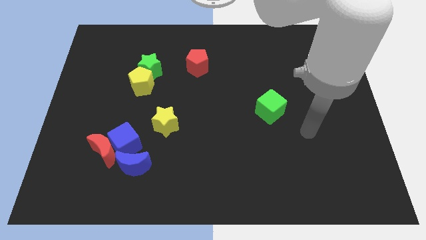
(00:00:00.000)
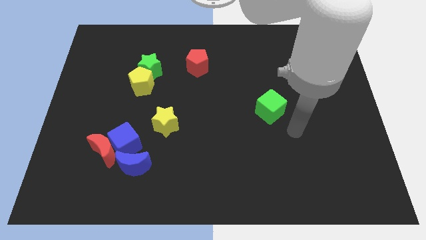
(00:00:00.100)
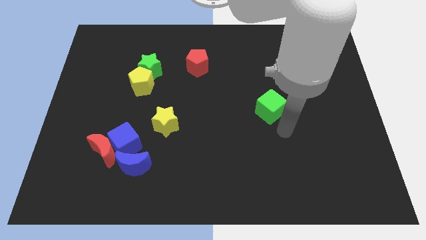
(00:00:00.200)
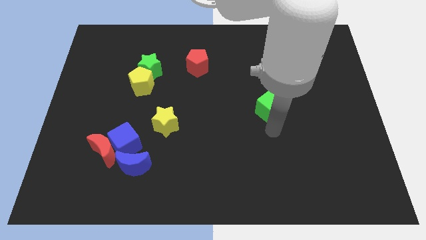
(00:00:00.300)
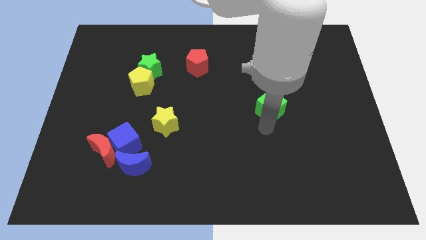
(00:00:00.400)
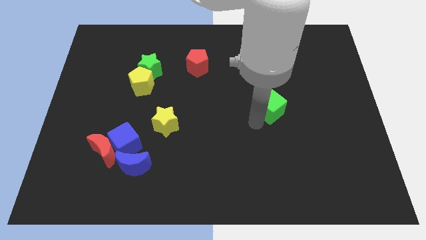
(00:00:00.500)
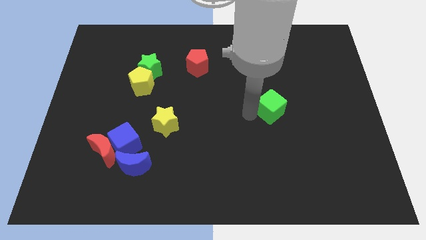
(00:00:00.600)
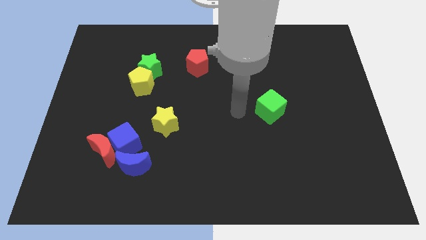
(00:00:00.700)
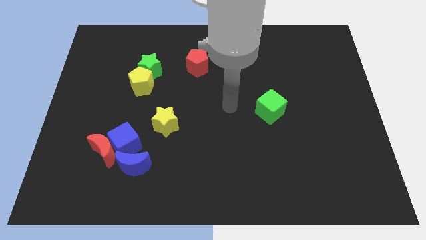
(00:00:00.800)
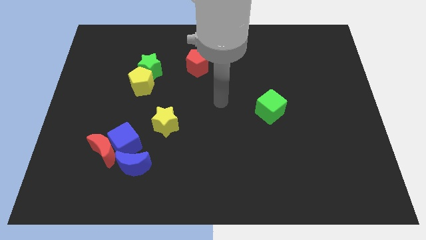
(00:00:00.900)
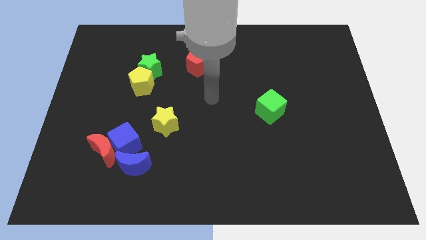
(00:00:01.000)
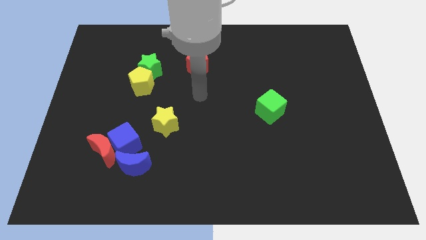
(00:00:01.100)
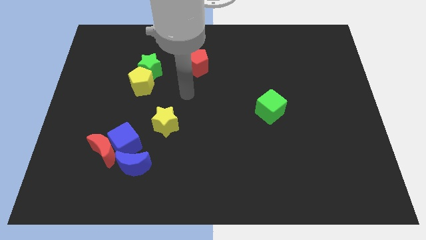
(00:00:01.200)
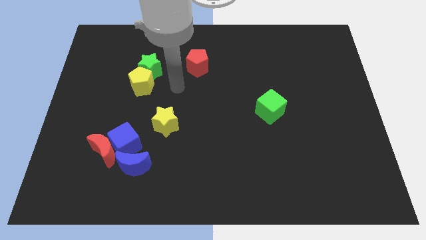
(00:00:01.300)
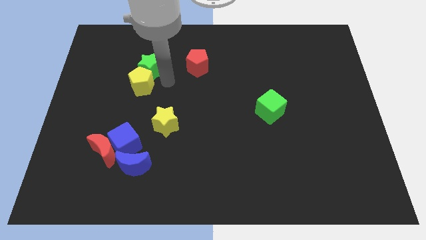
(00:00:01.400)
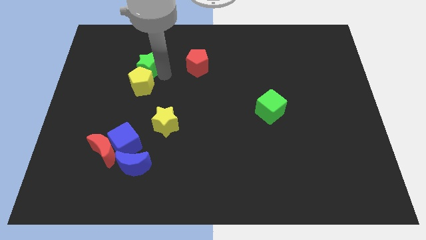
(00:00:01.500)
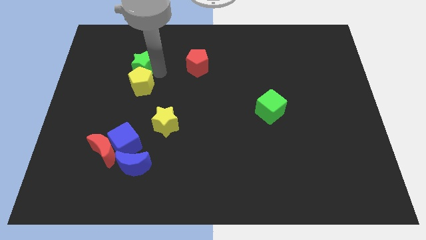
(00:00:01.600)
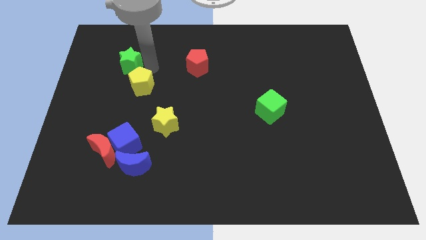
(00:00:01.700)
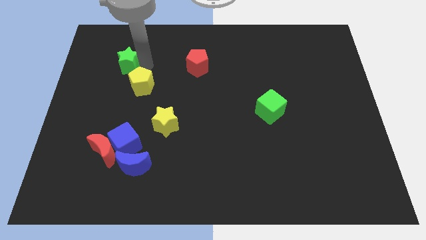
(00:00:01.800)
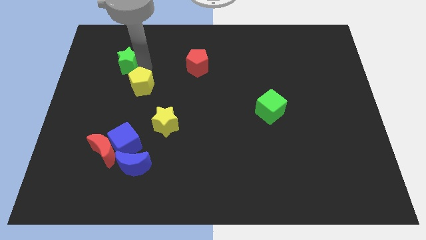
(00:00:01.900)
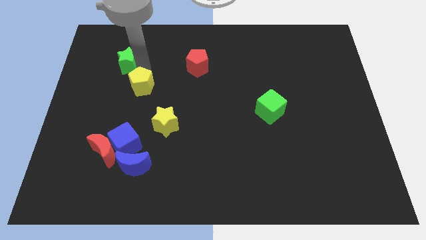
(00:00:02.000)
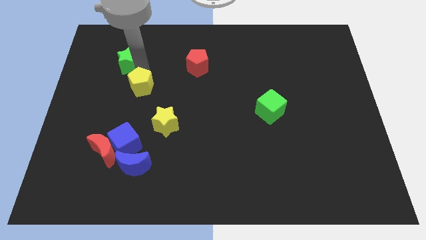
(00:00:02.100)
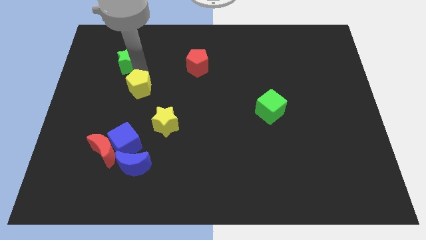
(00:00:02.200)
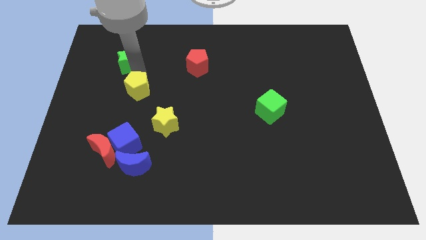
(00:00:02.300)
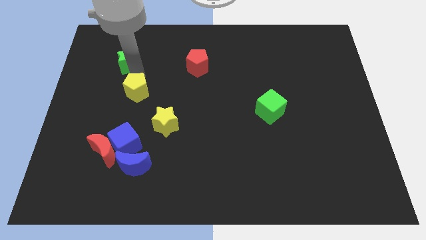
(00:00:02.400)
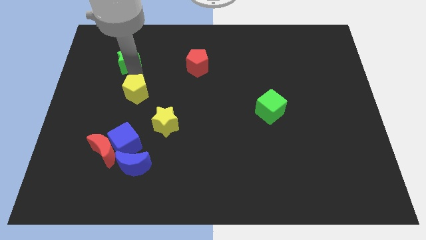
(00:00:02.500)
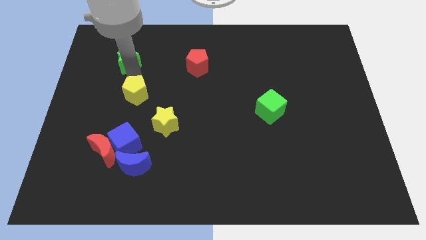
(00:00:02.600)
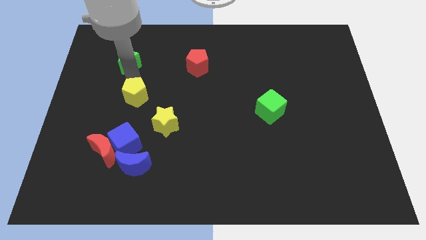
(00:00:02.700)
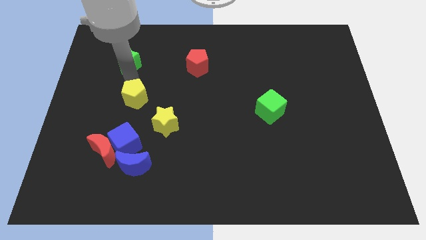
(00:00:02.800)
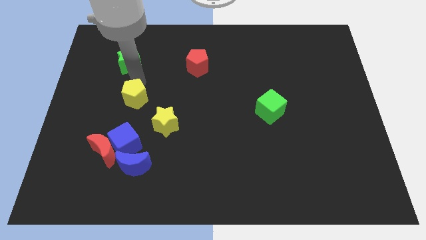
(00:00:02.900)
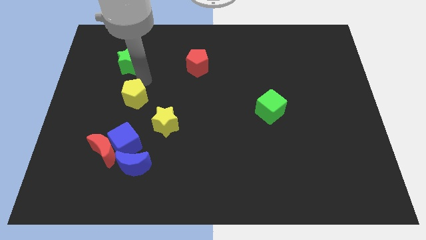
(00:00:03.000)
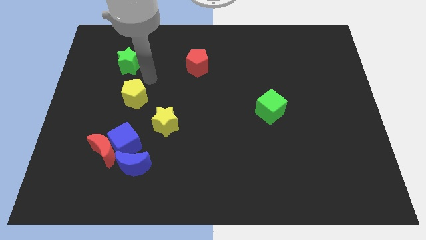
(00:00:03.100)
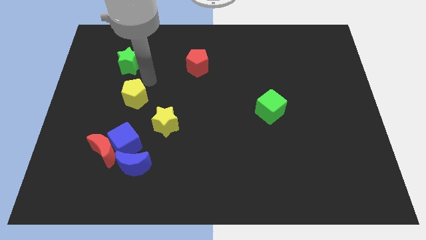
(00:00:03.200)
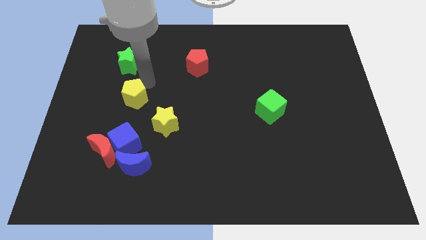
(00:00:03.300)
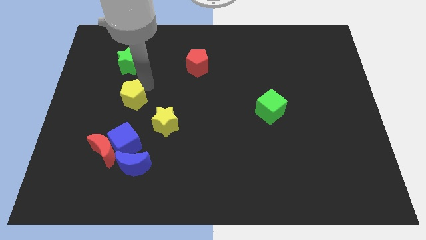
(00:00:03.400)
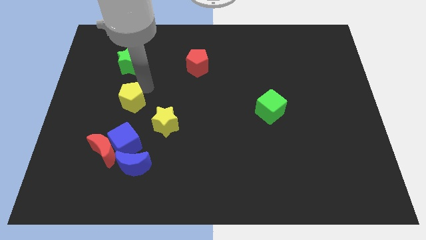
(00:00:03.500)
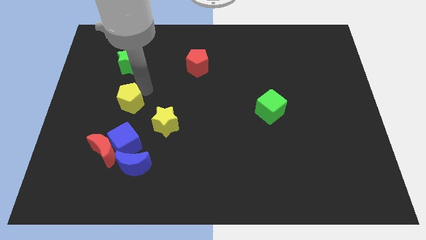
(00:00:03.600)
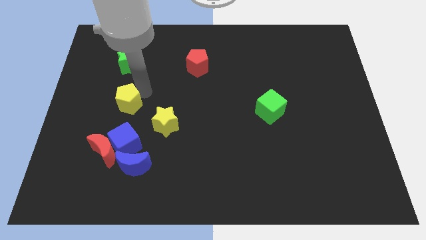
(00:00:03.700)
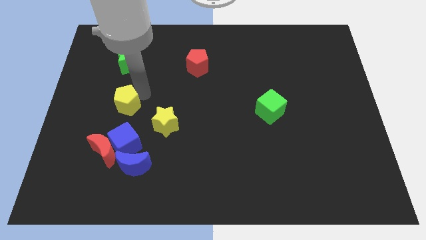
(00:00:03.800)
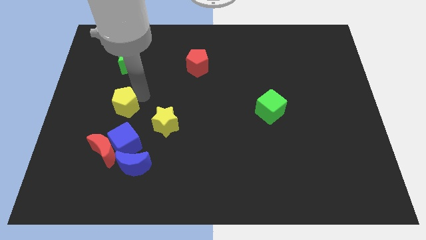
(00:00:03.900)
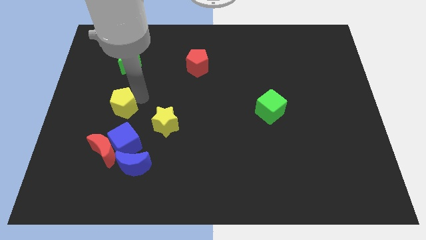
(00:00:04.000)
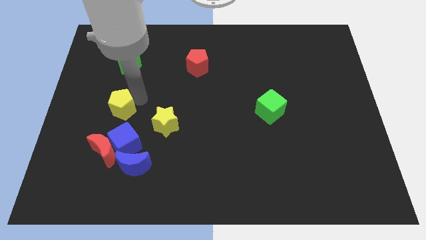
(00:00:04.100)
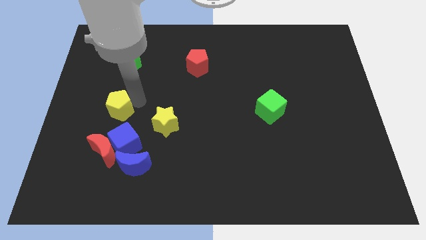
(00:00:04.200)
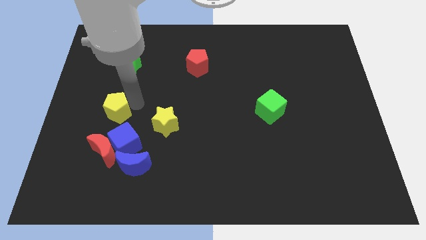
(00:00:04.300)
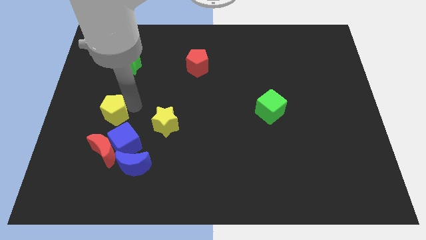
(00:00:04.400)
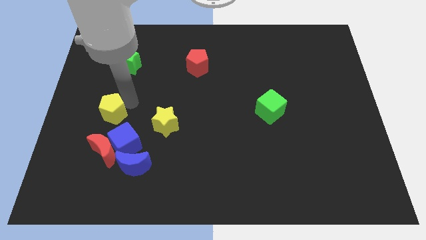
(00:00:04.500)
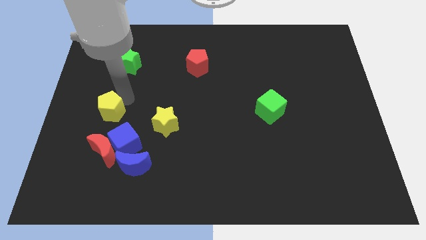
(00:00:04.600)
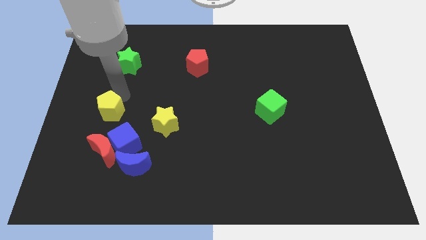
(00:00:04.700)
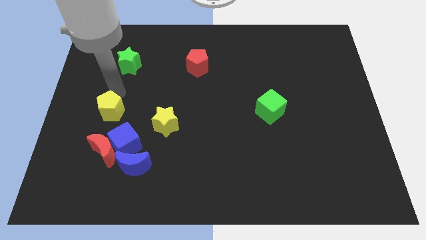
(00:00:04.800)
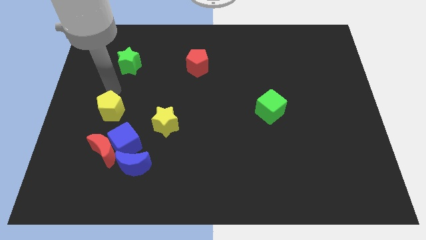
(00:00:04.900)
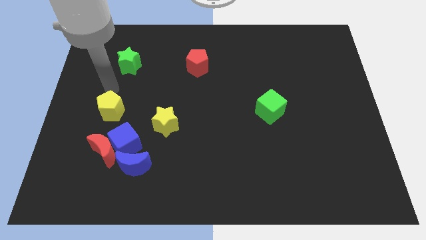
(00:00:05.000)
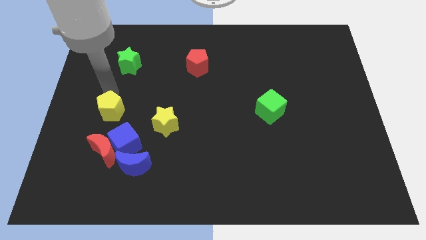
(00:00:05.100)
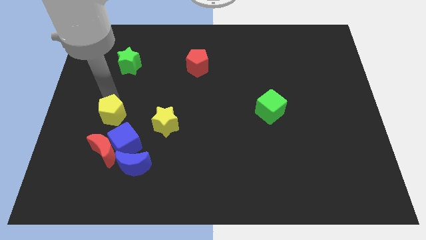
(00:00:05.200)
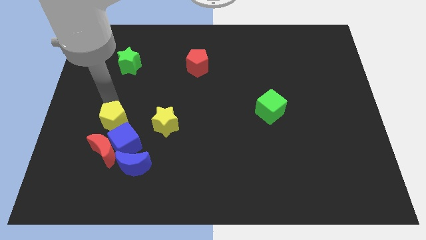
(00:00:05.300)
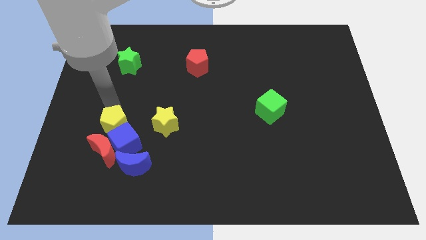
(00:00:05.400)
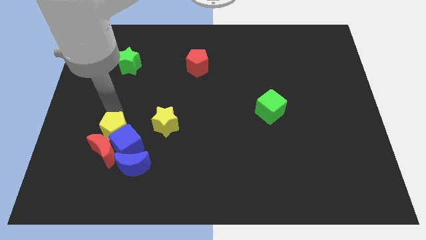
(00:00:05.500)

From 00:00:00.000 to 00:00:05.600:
move the yellow pentagon close to the red moon

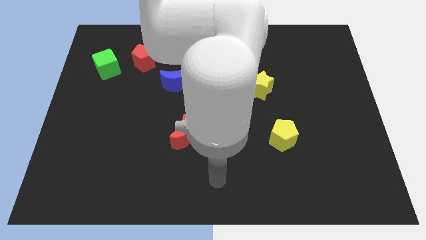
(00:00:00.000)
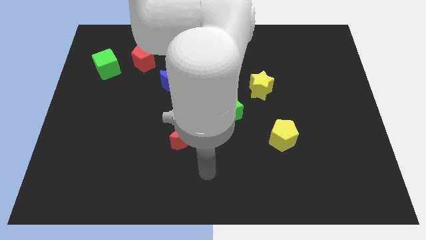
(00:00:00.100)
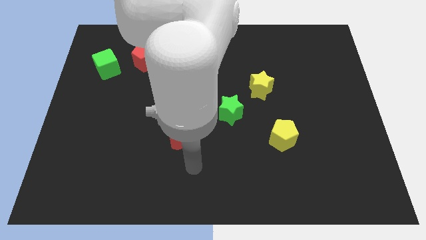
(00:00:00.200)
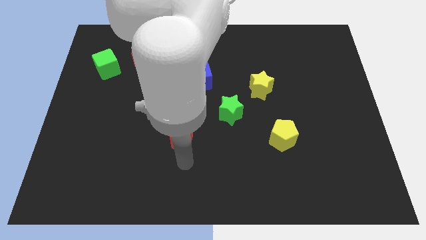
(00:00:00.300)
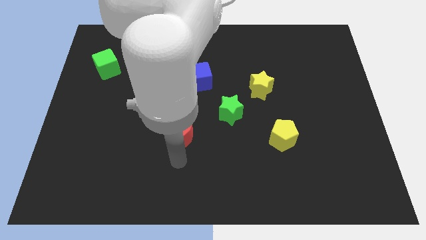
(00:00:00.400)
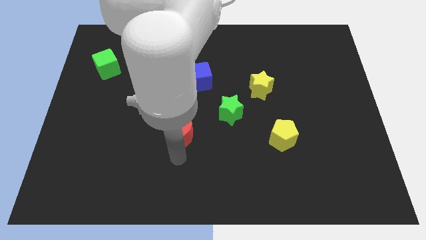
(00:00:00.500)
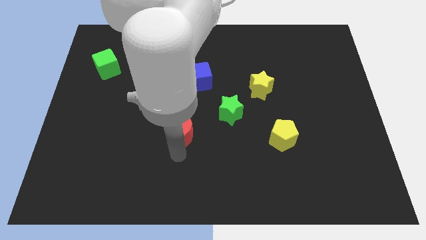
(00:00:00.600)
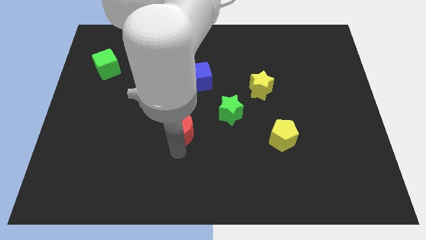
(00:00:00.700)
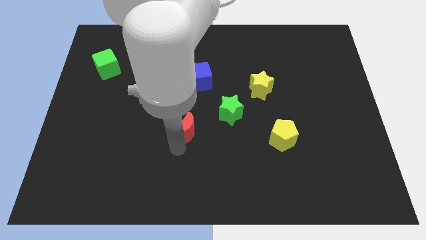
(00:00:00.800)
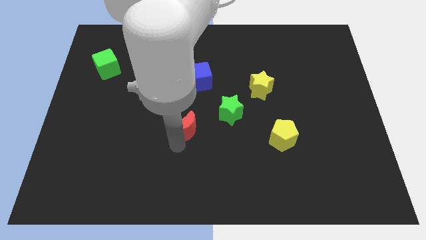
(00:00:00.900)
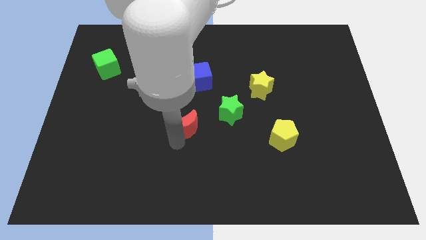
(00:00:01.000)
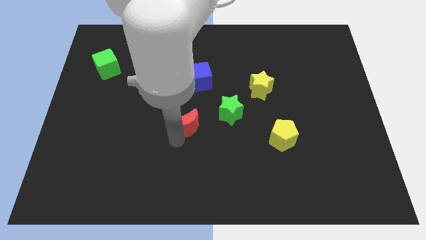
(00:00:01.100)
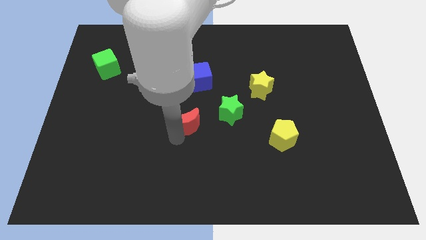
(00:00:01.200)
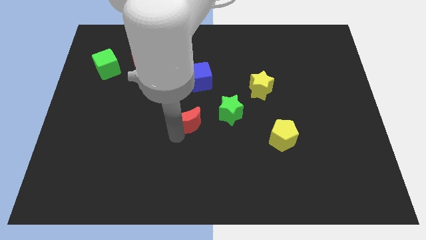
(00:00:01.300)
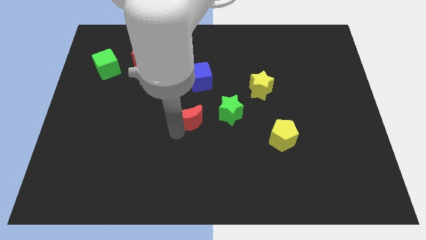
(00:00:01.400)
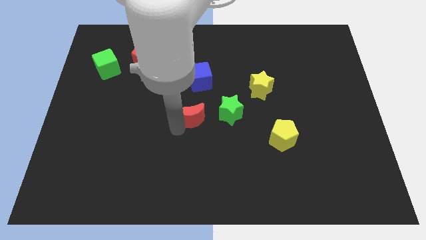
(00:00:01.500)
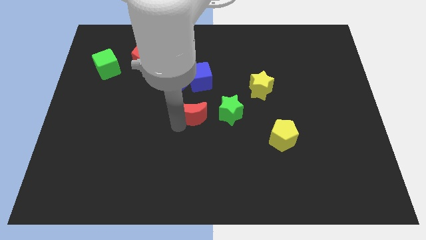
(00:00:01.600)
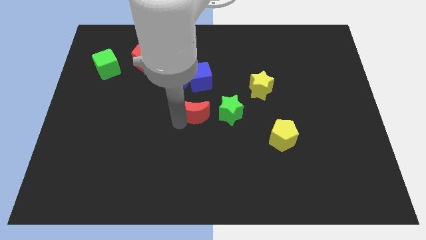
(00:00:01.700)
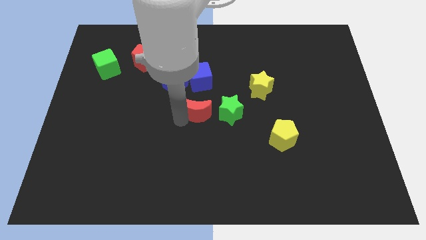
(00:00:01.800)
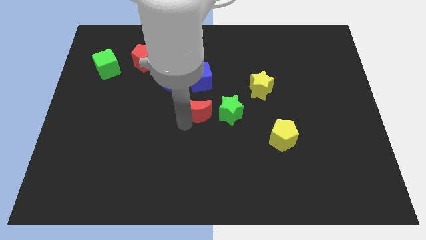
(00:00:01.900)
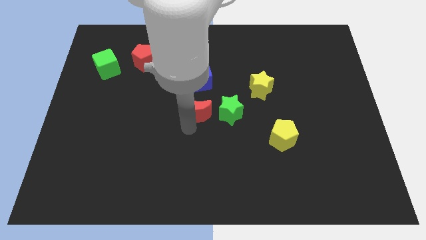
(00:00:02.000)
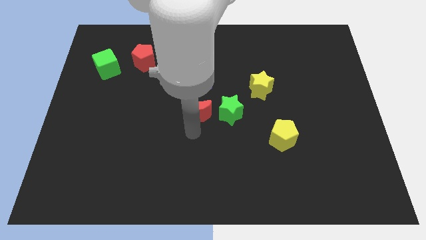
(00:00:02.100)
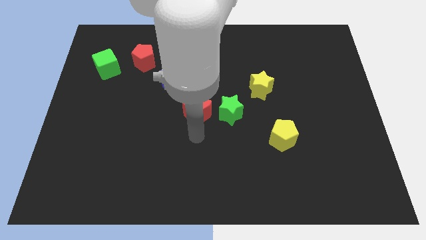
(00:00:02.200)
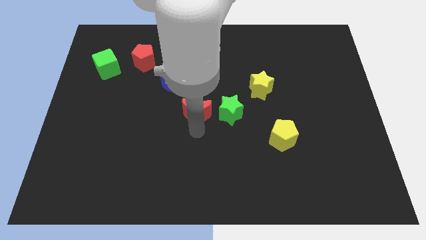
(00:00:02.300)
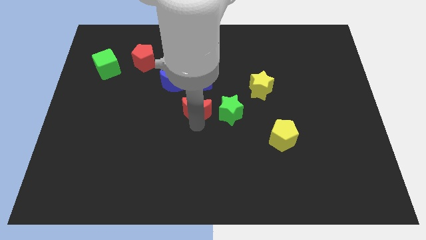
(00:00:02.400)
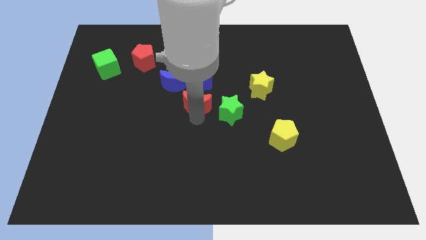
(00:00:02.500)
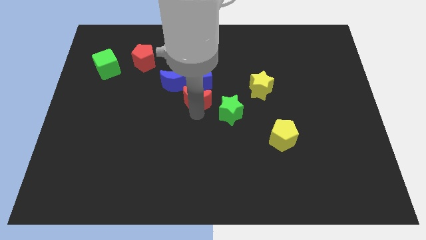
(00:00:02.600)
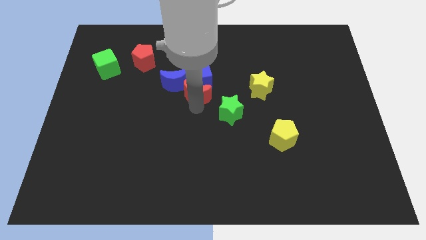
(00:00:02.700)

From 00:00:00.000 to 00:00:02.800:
put the red moon close to the blue cube
